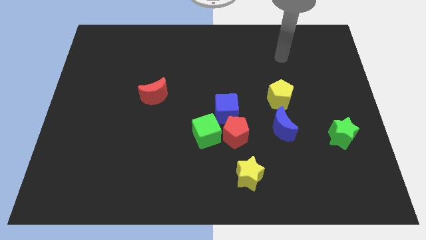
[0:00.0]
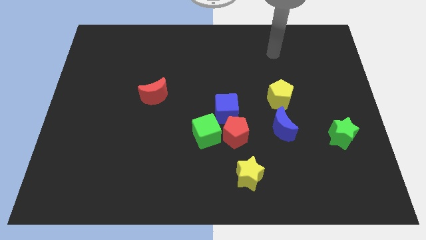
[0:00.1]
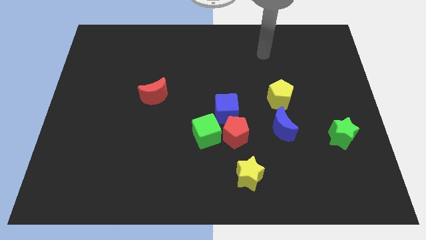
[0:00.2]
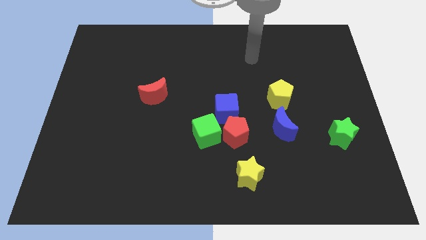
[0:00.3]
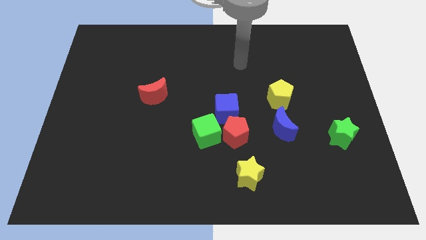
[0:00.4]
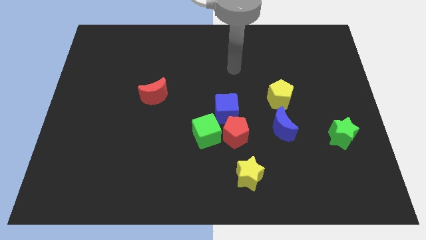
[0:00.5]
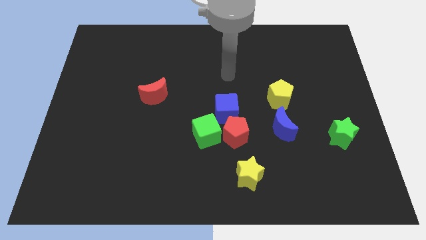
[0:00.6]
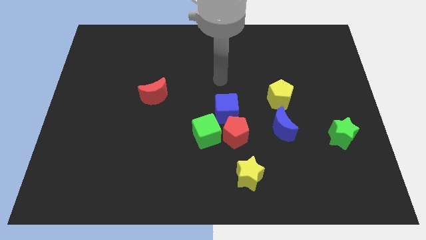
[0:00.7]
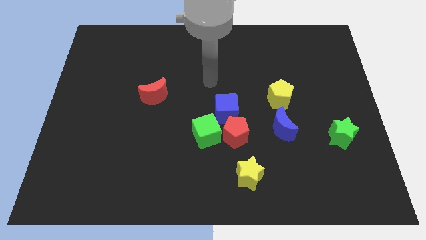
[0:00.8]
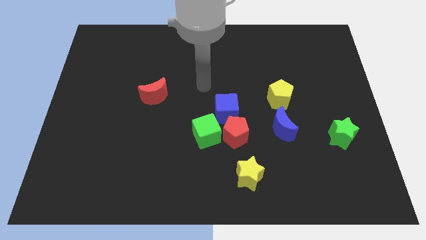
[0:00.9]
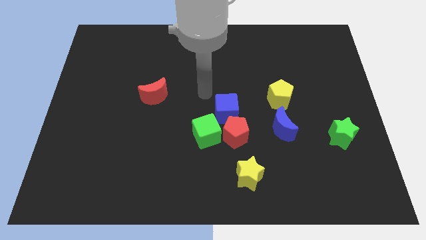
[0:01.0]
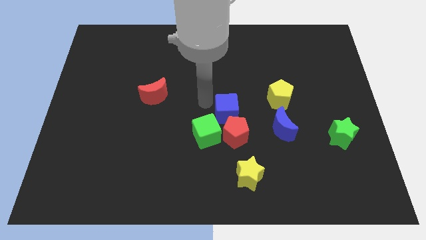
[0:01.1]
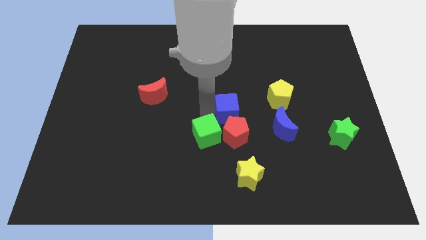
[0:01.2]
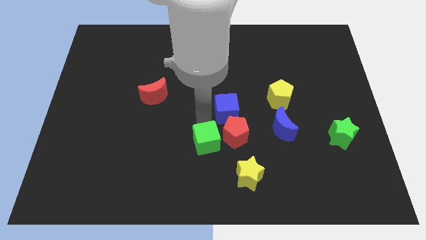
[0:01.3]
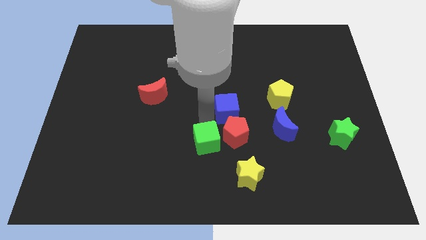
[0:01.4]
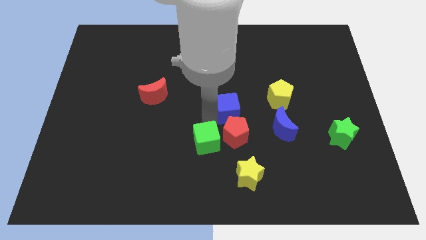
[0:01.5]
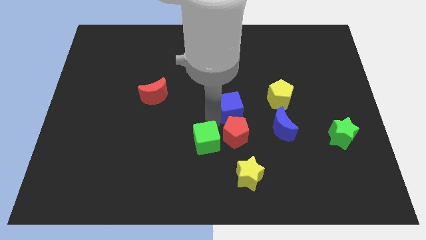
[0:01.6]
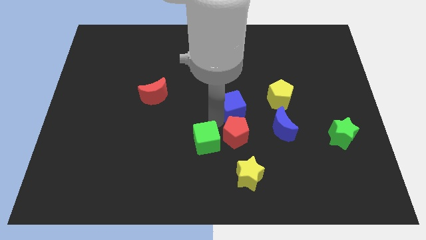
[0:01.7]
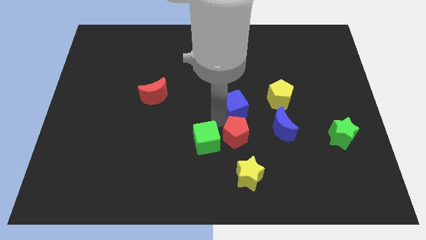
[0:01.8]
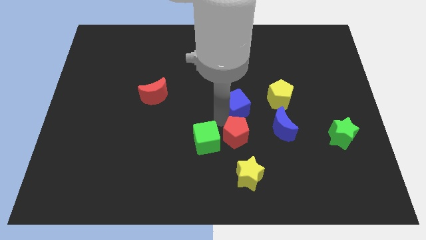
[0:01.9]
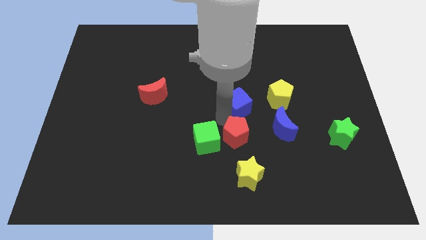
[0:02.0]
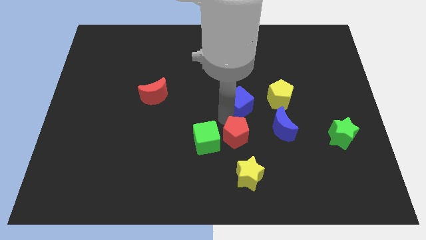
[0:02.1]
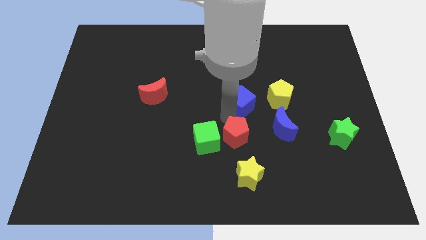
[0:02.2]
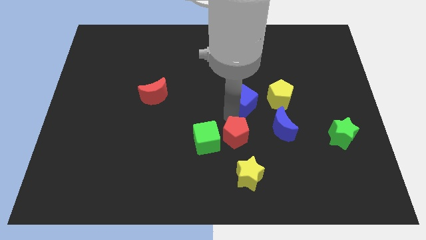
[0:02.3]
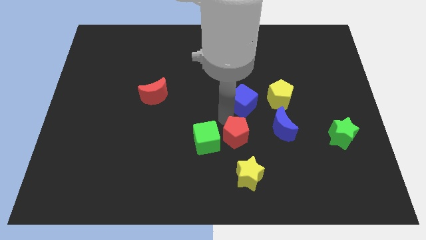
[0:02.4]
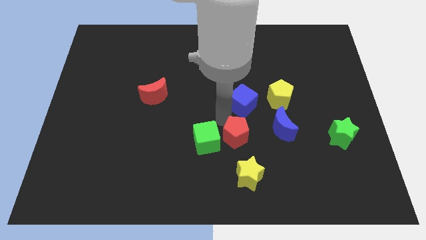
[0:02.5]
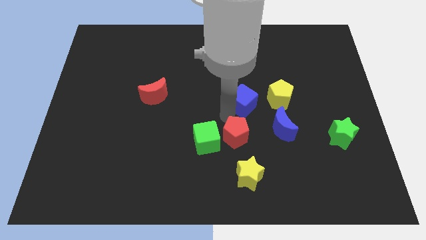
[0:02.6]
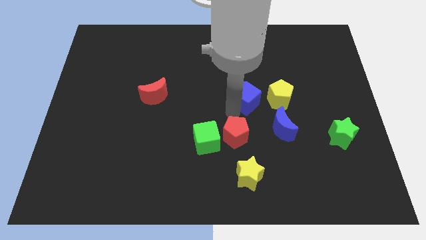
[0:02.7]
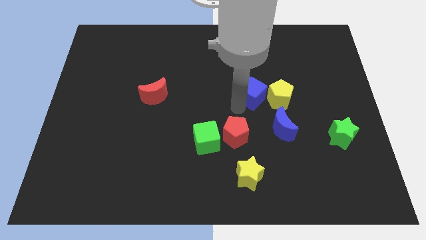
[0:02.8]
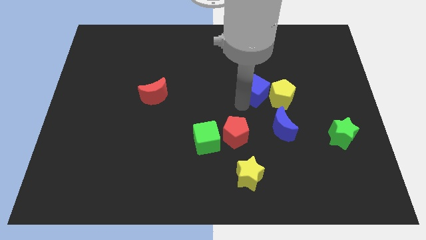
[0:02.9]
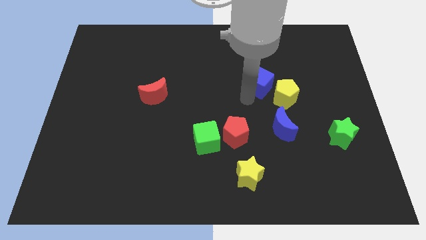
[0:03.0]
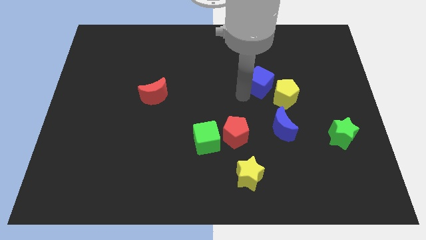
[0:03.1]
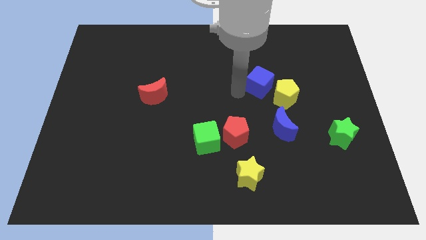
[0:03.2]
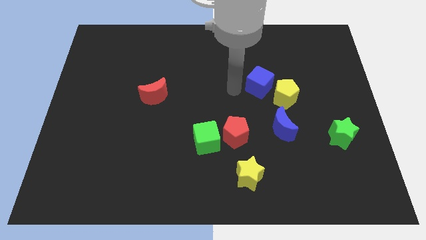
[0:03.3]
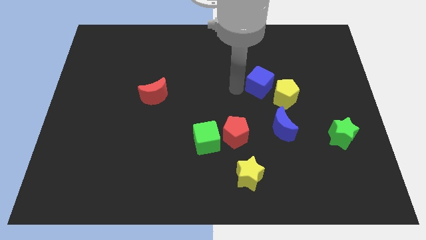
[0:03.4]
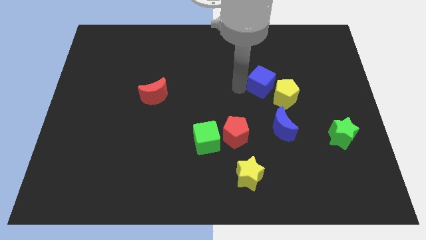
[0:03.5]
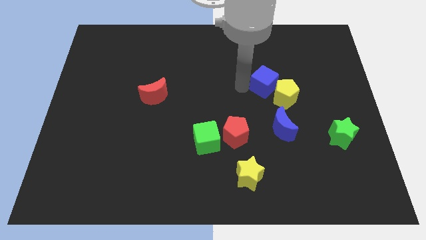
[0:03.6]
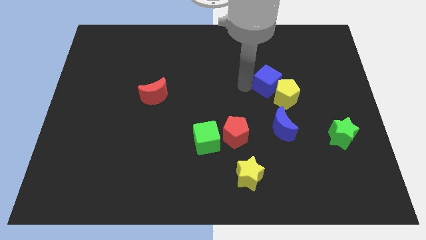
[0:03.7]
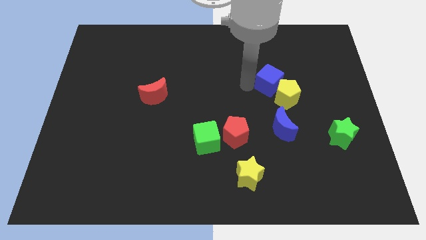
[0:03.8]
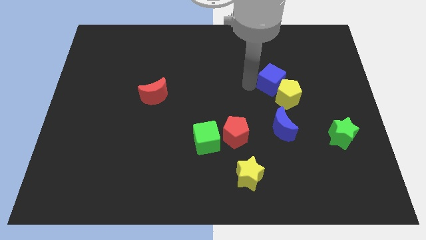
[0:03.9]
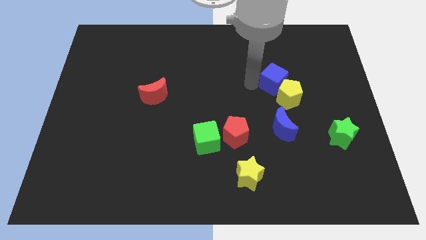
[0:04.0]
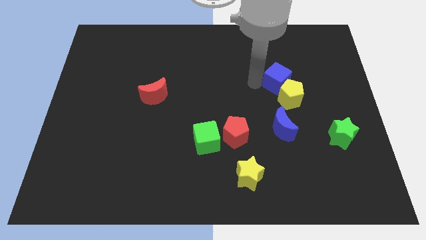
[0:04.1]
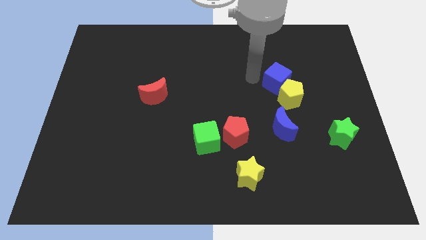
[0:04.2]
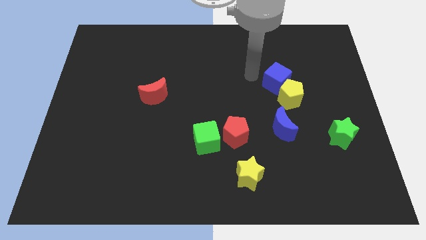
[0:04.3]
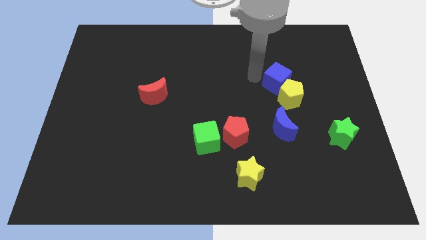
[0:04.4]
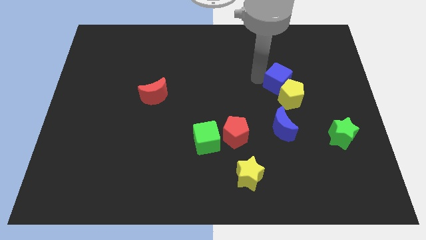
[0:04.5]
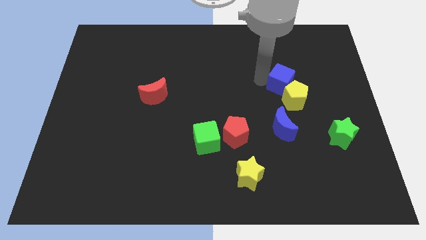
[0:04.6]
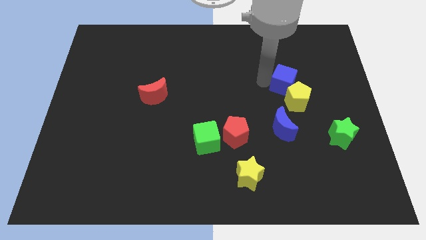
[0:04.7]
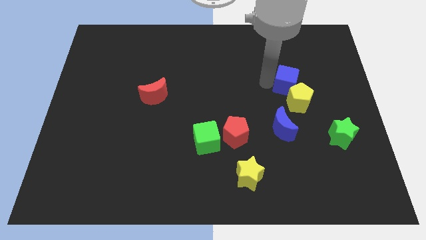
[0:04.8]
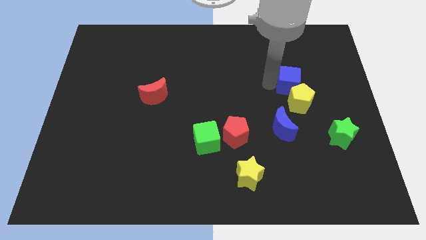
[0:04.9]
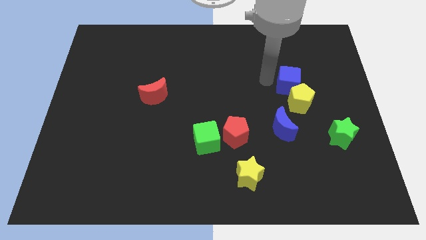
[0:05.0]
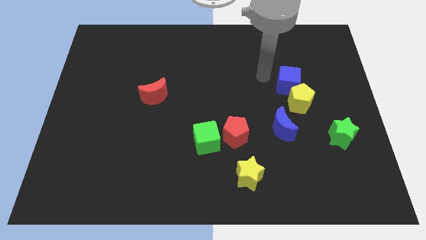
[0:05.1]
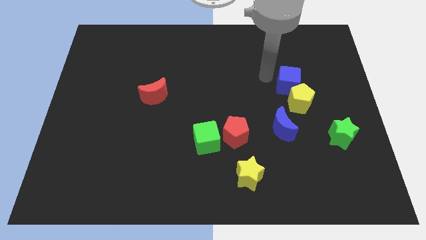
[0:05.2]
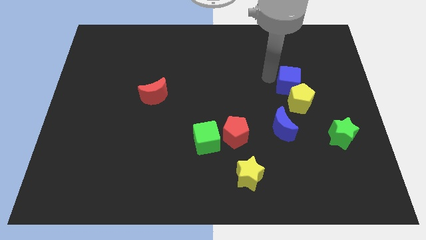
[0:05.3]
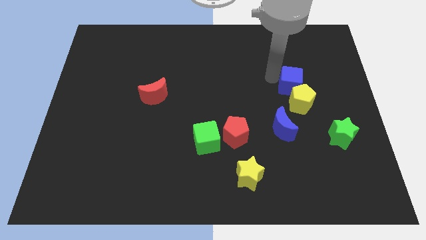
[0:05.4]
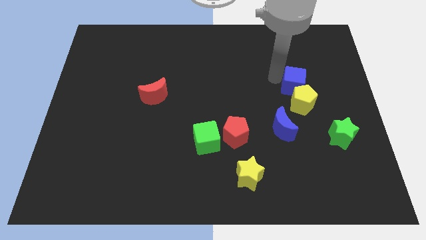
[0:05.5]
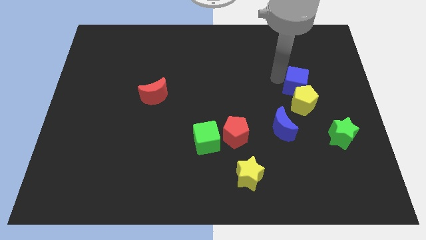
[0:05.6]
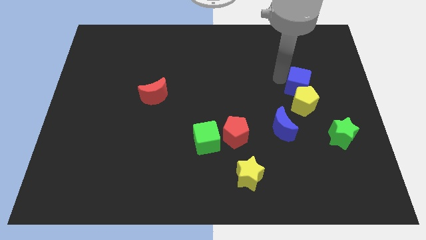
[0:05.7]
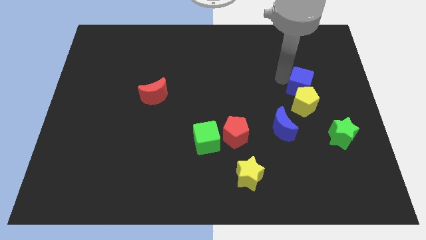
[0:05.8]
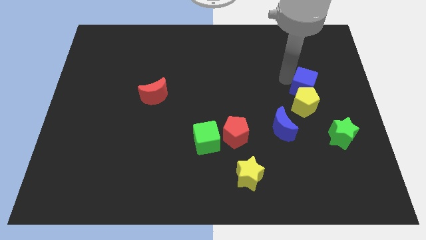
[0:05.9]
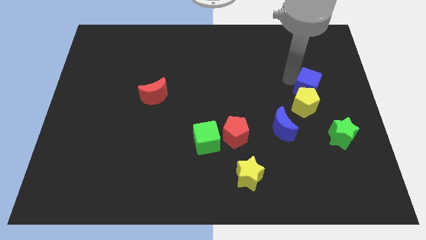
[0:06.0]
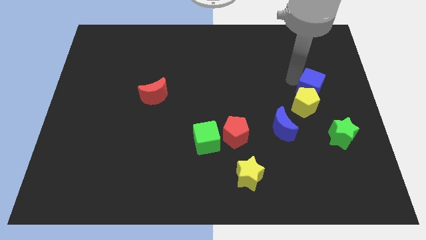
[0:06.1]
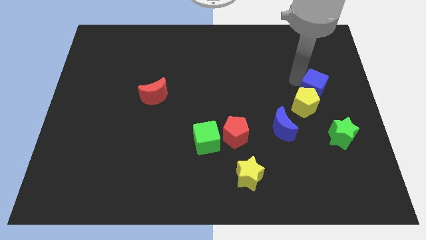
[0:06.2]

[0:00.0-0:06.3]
move the blue cube to the top of the green star

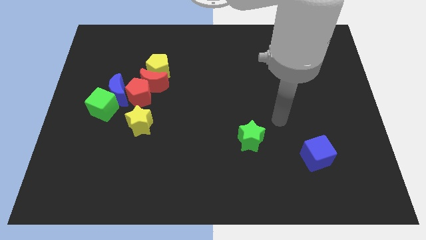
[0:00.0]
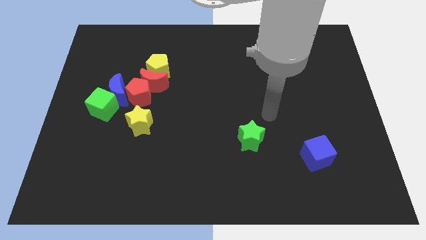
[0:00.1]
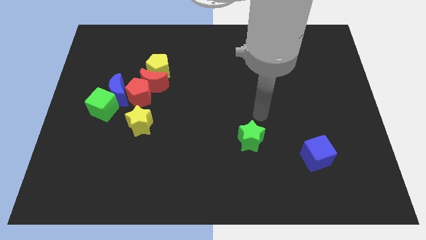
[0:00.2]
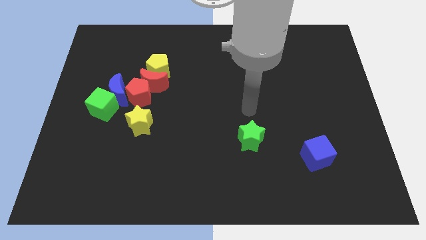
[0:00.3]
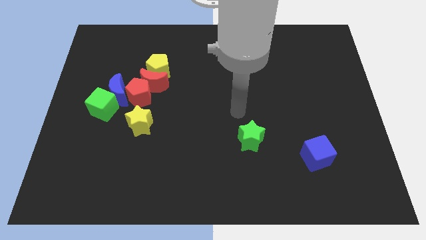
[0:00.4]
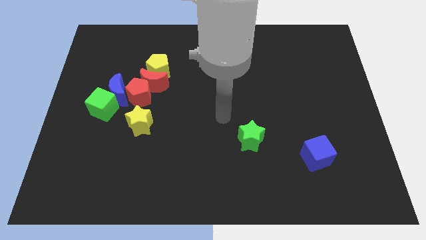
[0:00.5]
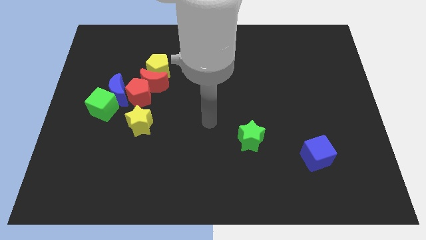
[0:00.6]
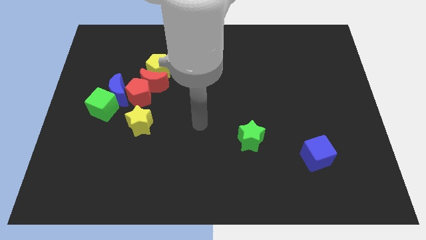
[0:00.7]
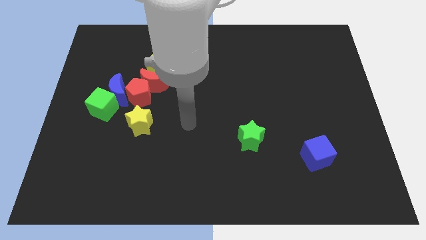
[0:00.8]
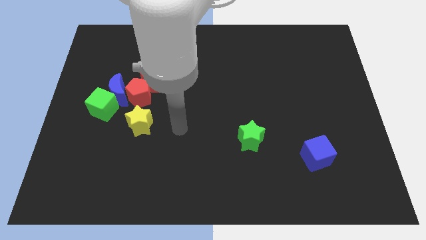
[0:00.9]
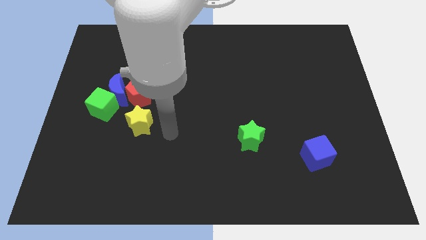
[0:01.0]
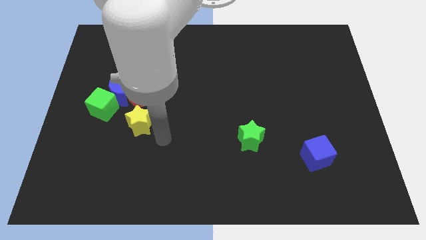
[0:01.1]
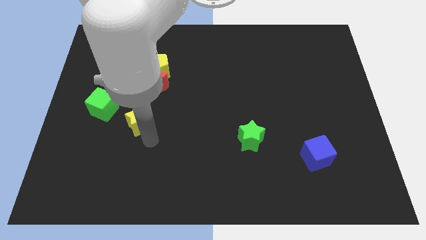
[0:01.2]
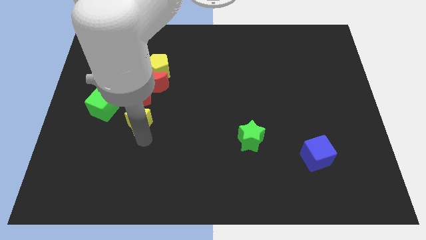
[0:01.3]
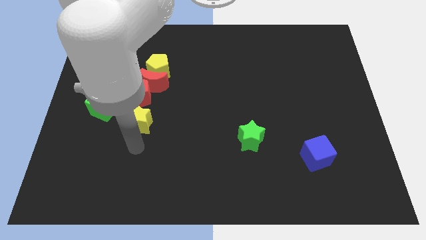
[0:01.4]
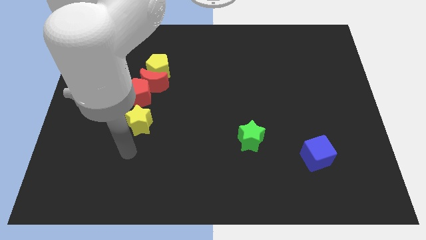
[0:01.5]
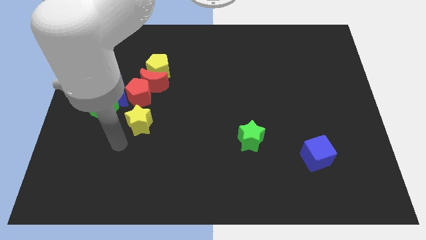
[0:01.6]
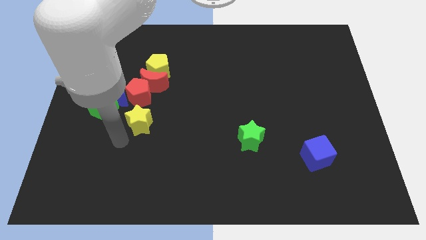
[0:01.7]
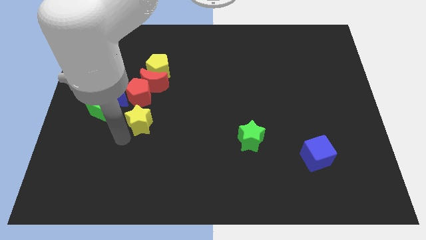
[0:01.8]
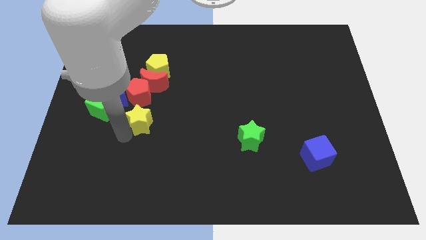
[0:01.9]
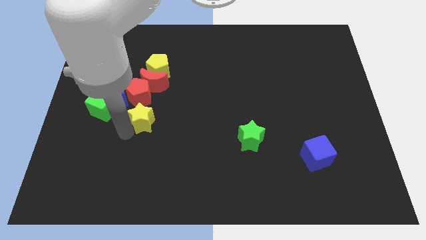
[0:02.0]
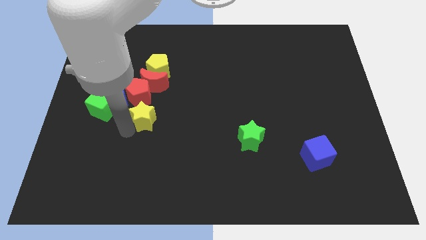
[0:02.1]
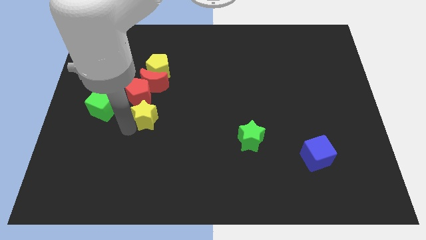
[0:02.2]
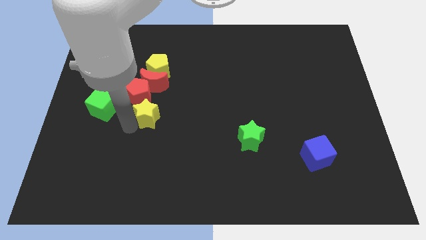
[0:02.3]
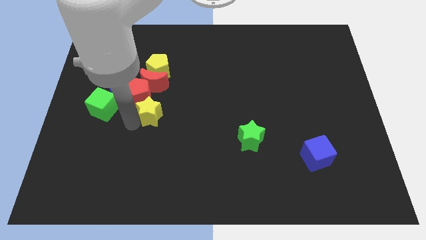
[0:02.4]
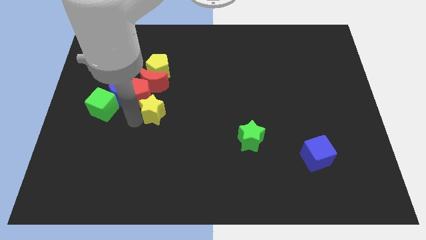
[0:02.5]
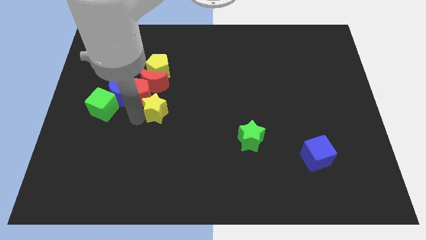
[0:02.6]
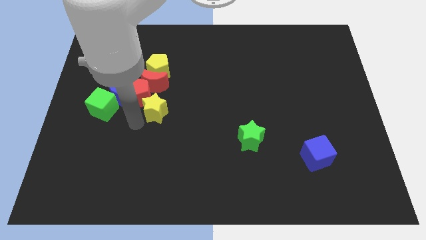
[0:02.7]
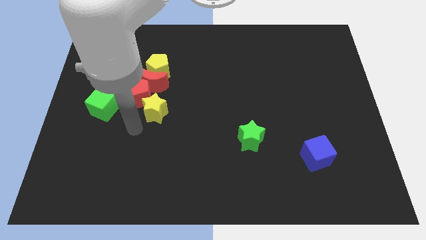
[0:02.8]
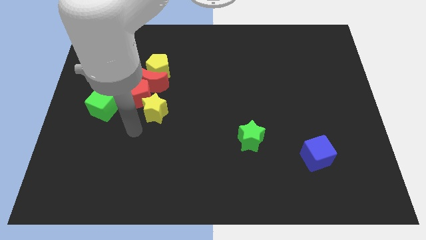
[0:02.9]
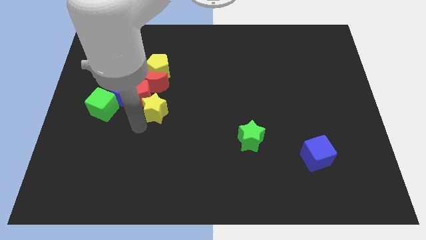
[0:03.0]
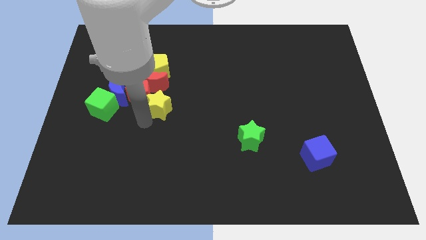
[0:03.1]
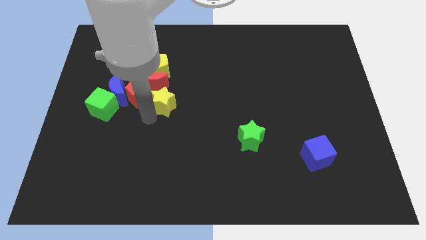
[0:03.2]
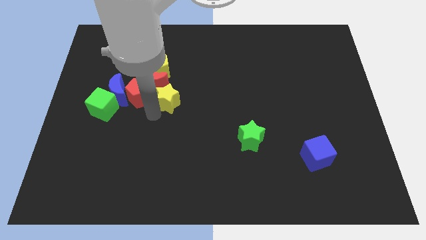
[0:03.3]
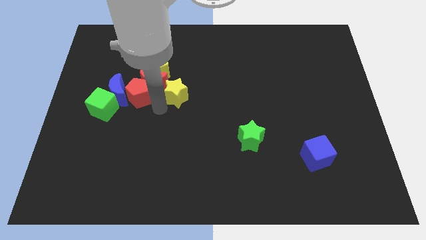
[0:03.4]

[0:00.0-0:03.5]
put the yellow star to the right of the red moon
